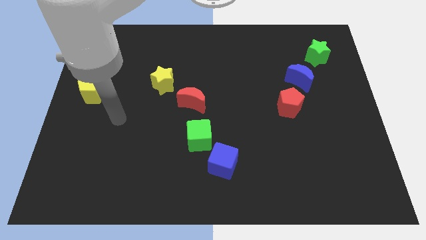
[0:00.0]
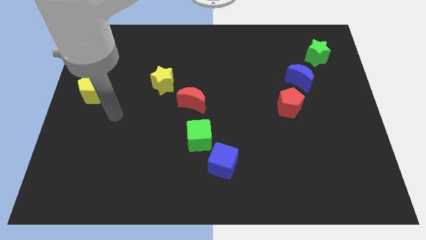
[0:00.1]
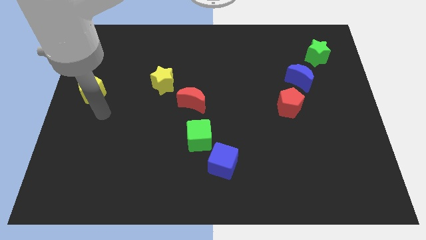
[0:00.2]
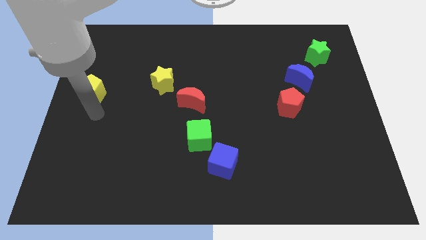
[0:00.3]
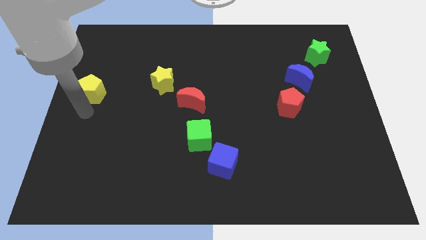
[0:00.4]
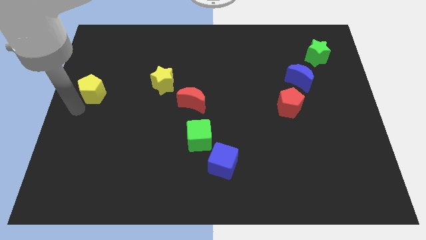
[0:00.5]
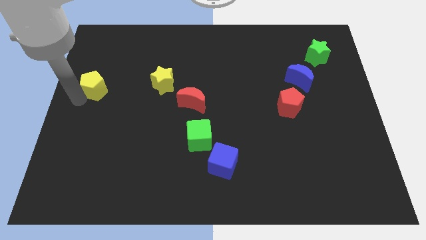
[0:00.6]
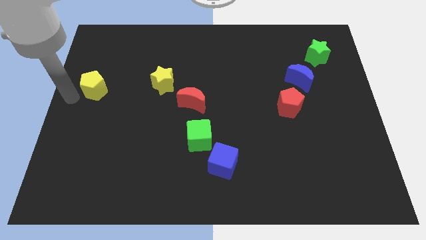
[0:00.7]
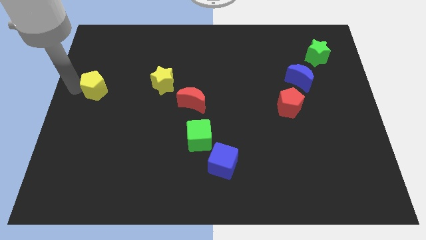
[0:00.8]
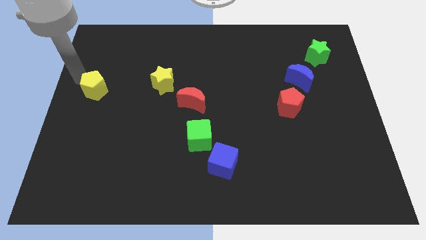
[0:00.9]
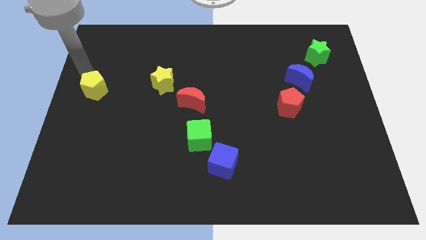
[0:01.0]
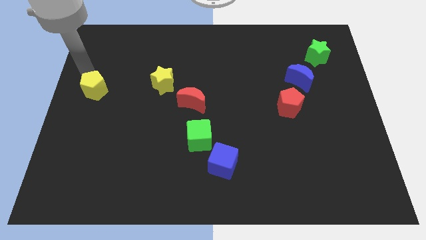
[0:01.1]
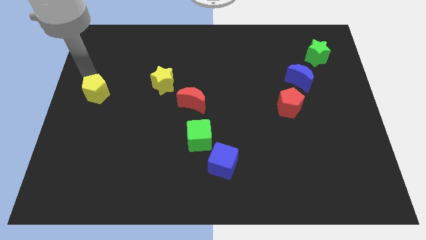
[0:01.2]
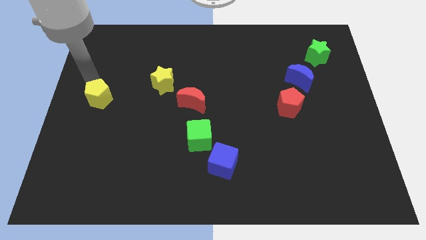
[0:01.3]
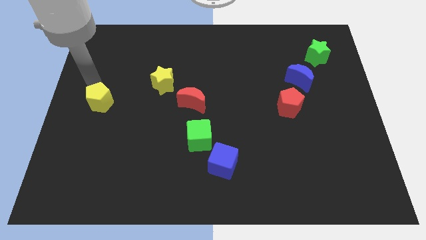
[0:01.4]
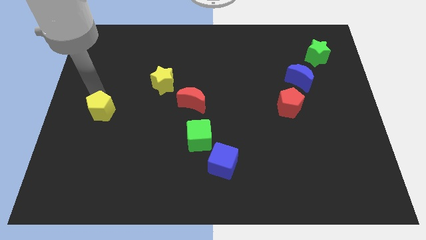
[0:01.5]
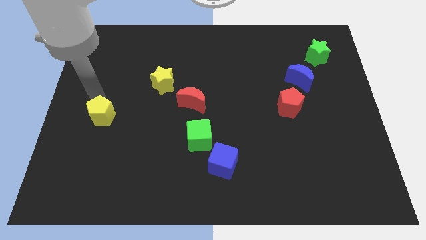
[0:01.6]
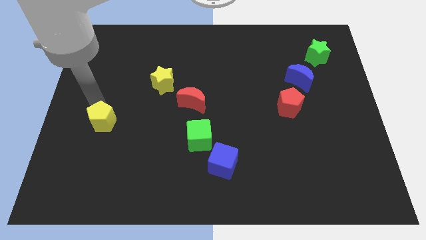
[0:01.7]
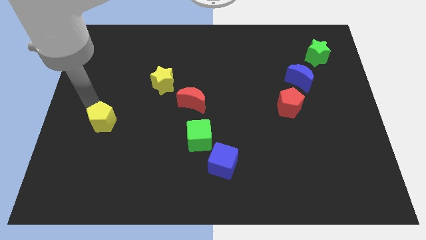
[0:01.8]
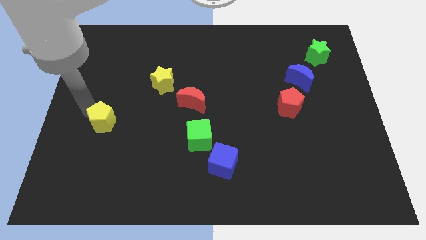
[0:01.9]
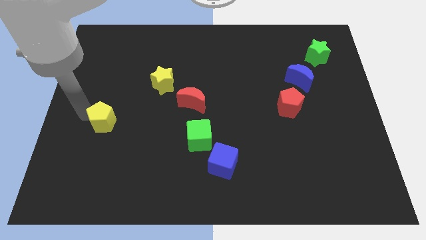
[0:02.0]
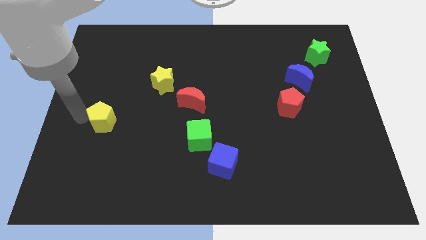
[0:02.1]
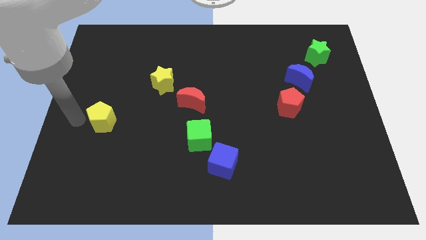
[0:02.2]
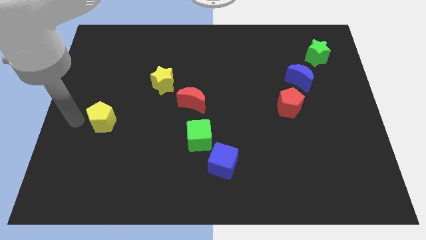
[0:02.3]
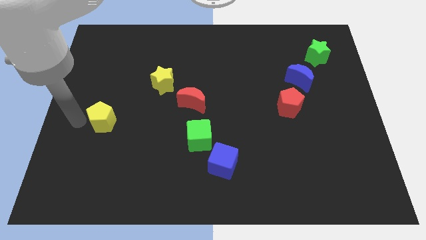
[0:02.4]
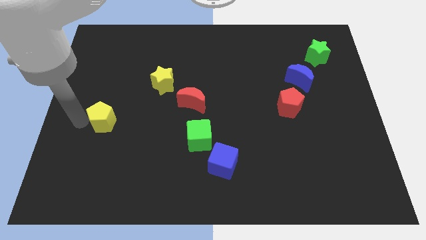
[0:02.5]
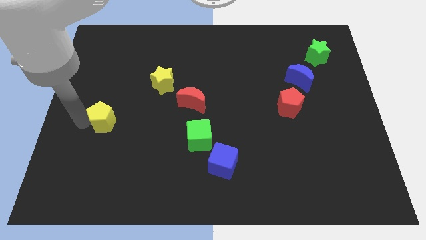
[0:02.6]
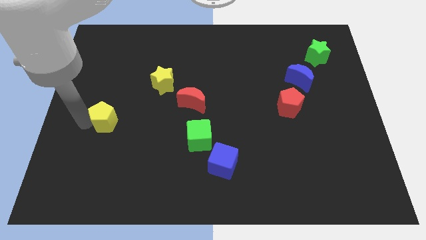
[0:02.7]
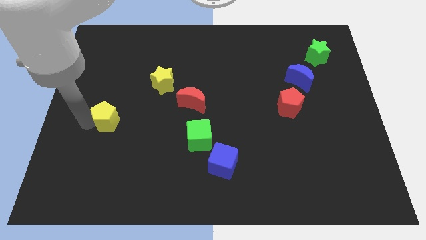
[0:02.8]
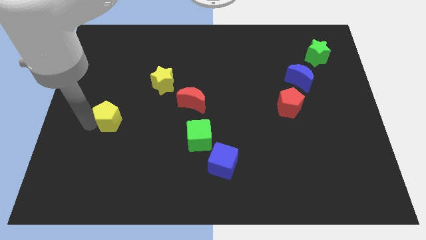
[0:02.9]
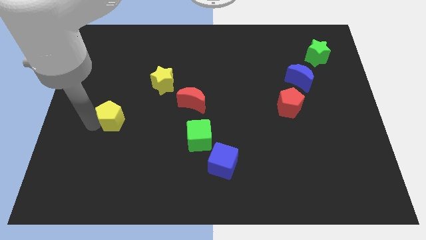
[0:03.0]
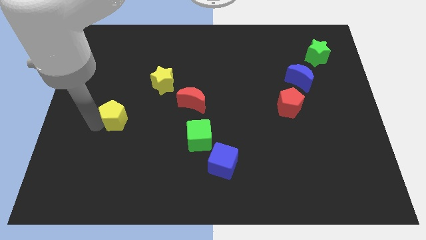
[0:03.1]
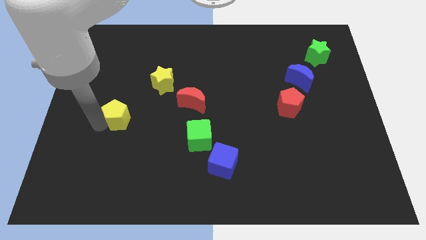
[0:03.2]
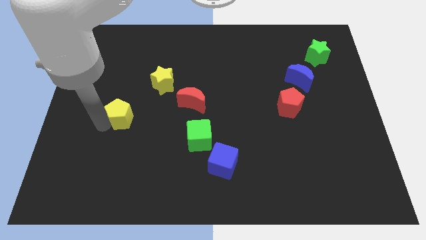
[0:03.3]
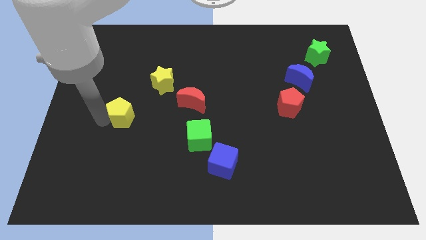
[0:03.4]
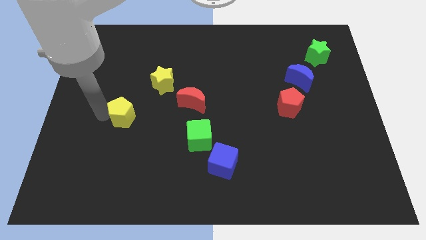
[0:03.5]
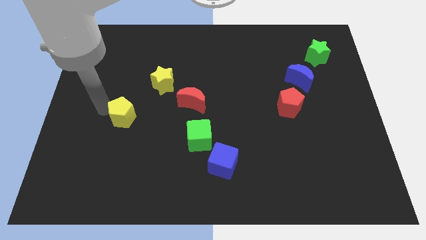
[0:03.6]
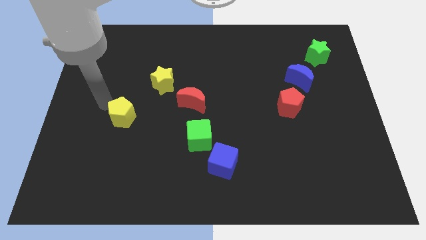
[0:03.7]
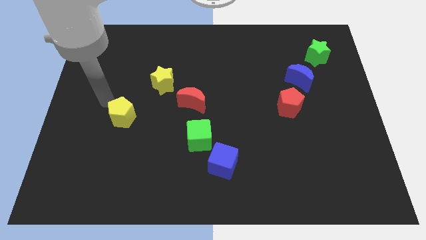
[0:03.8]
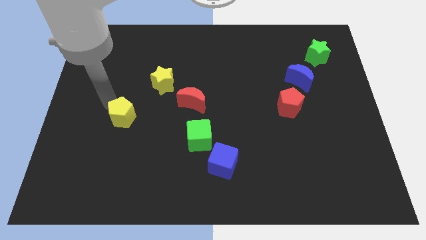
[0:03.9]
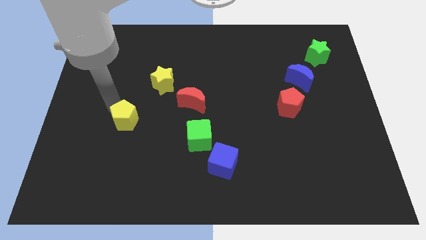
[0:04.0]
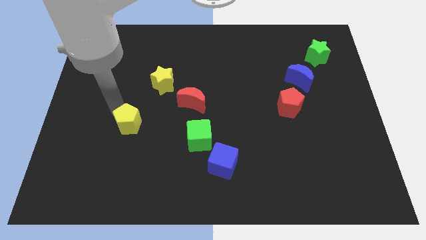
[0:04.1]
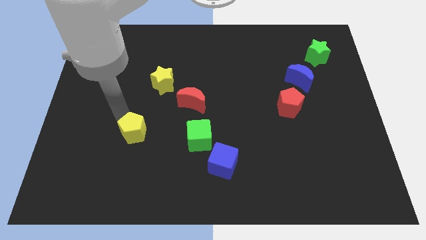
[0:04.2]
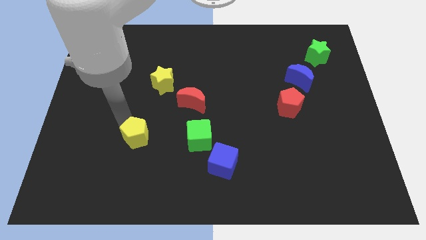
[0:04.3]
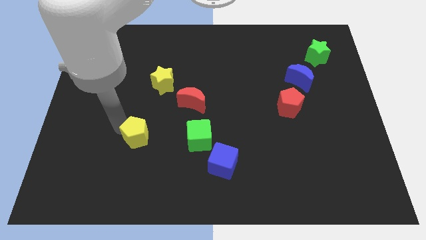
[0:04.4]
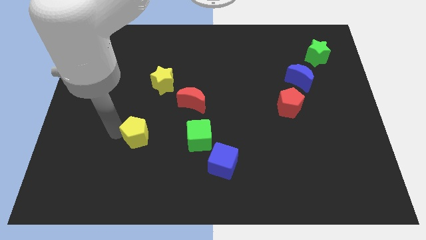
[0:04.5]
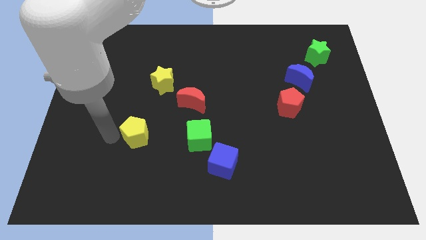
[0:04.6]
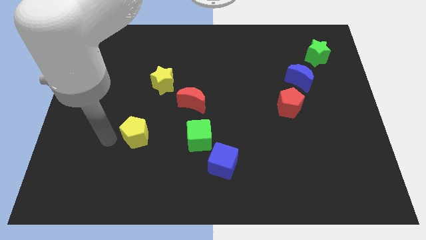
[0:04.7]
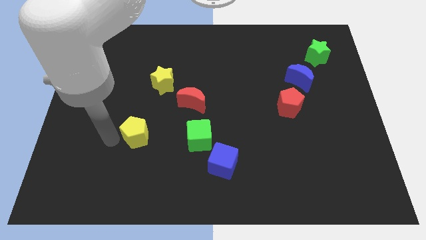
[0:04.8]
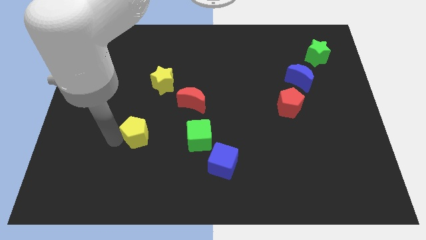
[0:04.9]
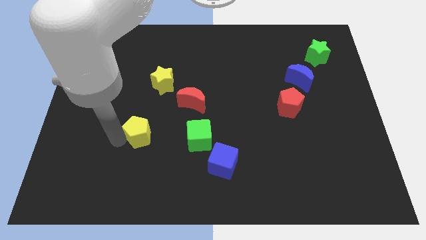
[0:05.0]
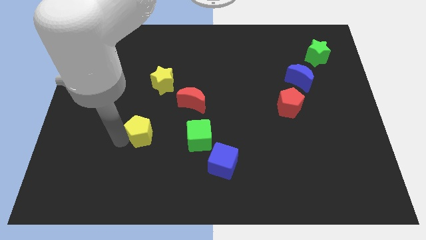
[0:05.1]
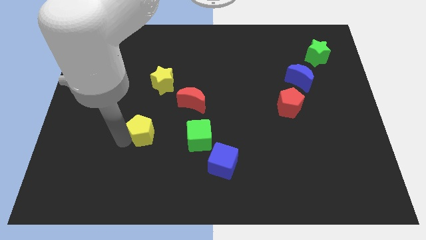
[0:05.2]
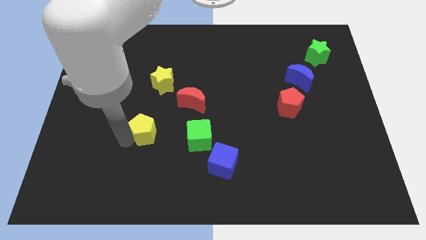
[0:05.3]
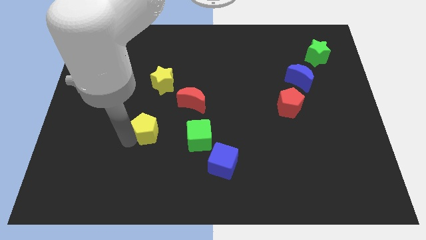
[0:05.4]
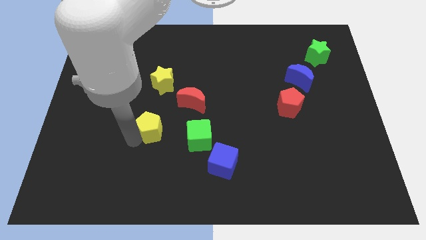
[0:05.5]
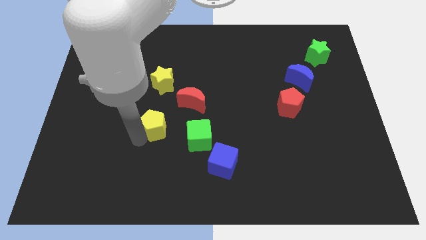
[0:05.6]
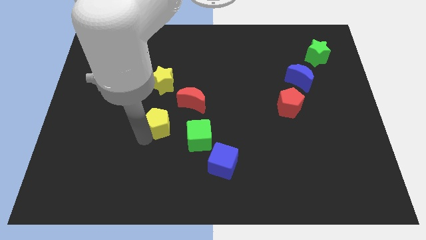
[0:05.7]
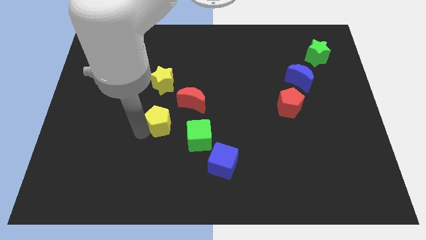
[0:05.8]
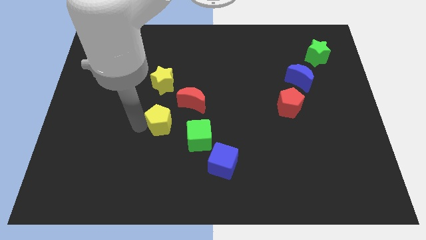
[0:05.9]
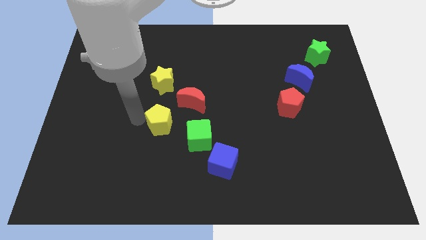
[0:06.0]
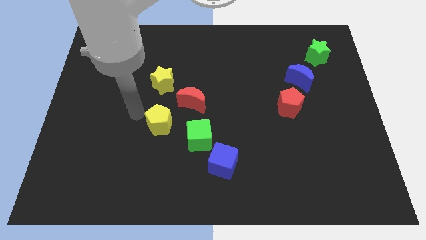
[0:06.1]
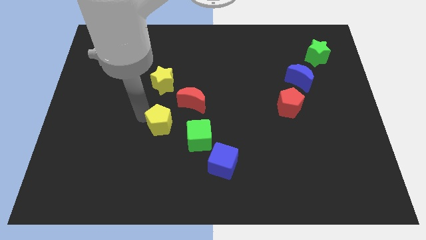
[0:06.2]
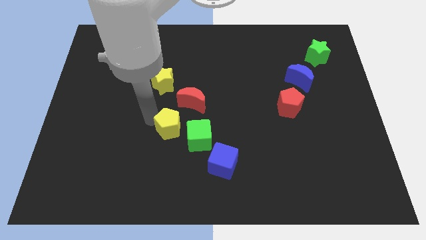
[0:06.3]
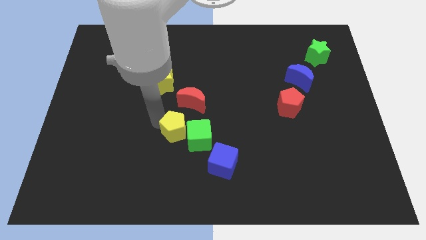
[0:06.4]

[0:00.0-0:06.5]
move the yellow pentagon close to the green cube
